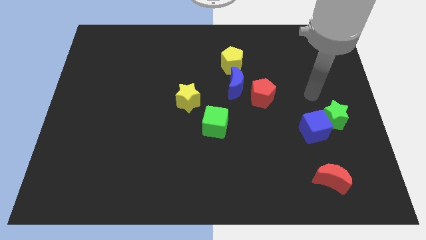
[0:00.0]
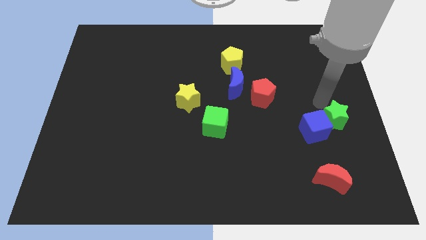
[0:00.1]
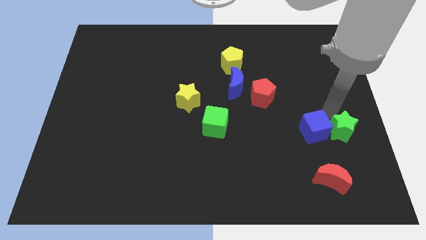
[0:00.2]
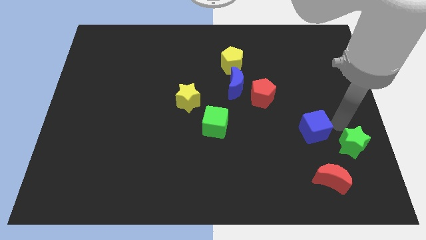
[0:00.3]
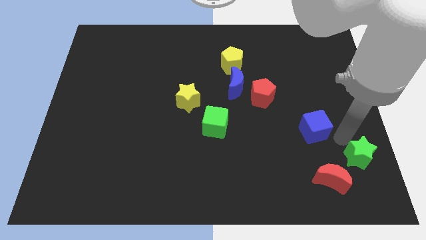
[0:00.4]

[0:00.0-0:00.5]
move the blue cube away from the green star

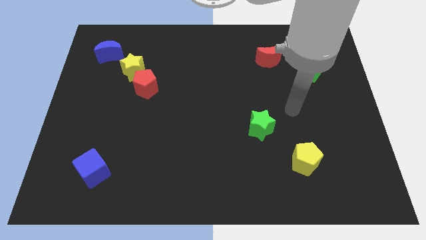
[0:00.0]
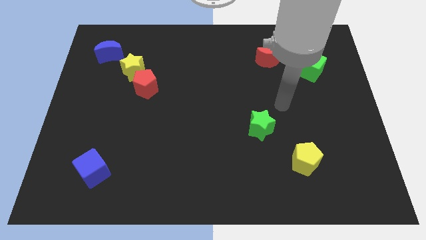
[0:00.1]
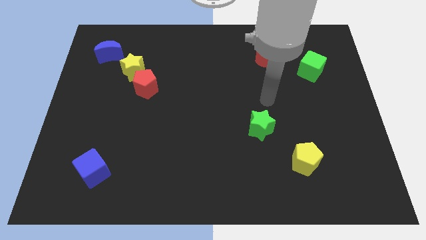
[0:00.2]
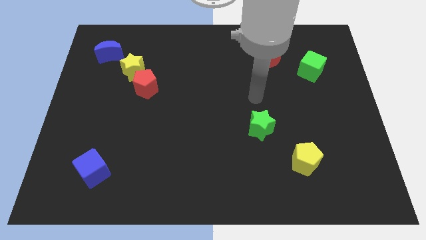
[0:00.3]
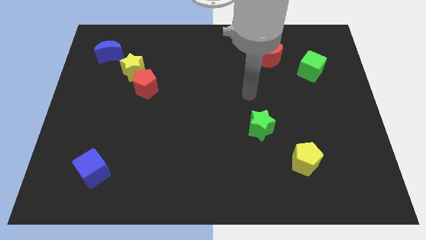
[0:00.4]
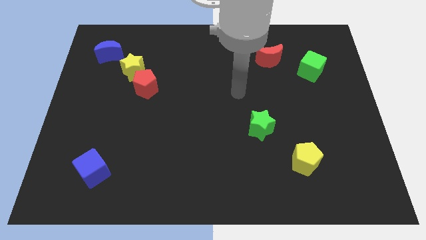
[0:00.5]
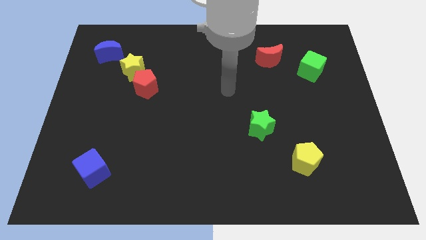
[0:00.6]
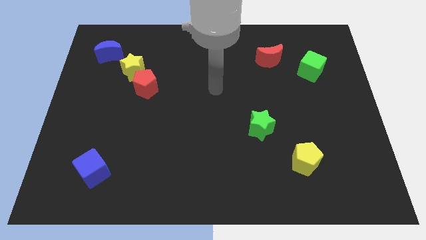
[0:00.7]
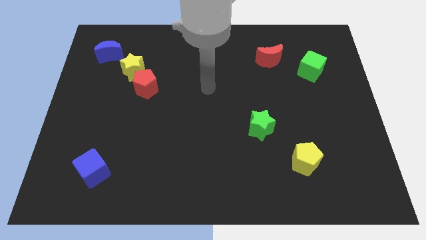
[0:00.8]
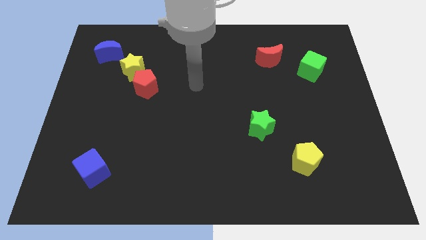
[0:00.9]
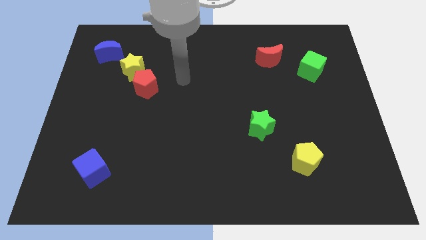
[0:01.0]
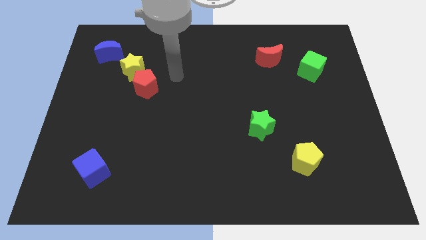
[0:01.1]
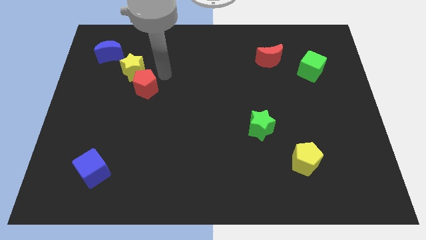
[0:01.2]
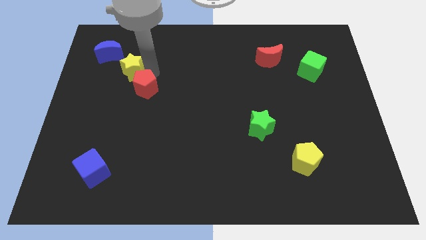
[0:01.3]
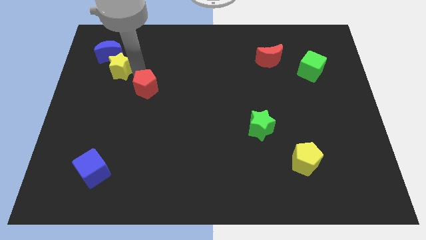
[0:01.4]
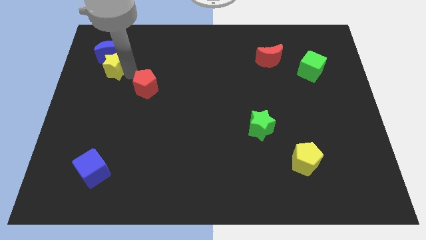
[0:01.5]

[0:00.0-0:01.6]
pull the red pentagon apart from the yellow star

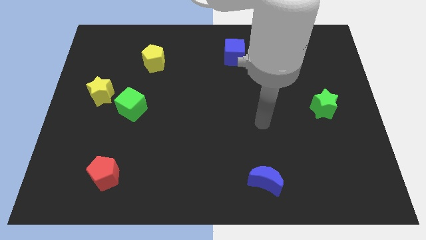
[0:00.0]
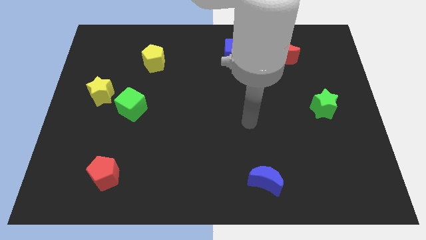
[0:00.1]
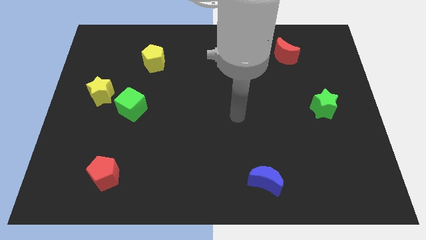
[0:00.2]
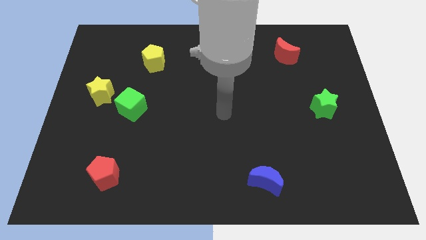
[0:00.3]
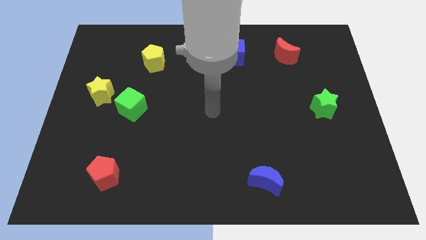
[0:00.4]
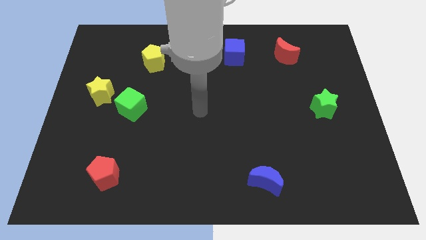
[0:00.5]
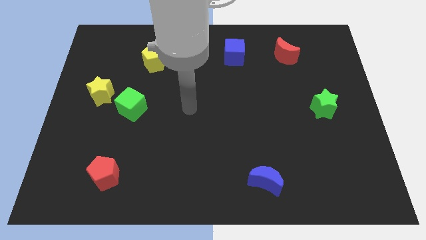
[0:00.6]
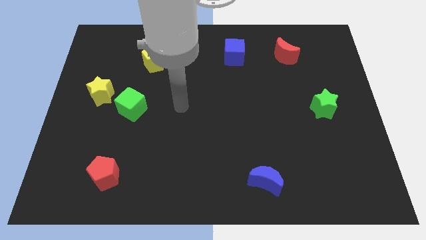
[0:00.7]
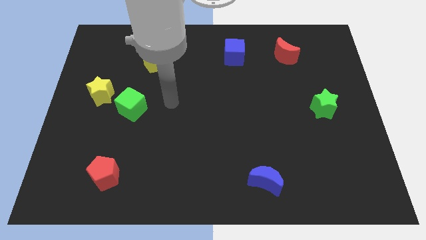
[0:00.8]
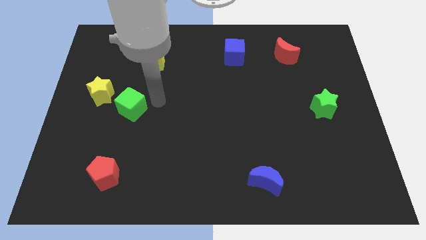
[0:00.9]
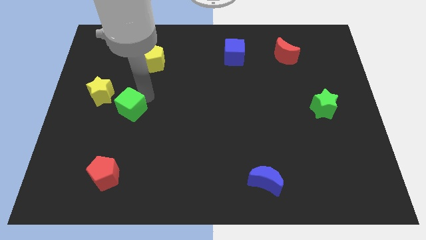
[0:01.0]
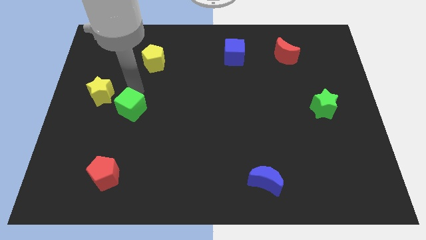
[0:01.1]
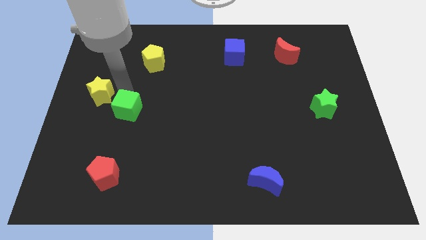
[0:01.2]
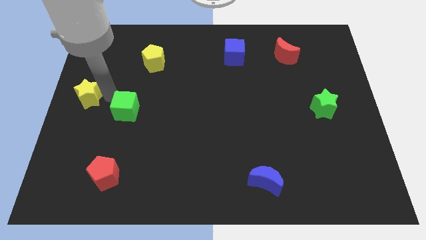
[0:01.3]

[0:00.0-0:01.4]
move the green cube away from the yellow star

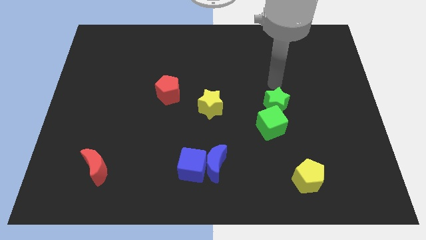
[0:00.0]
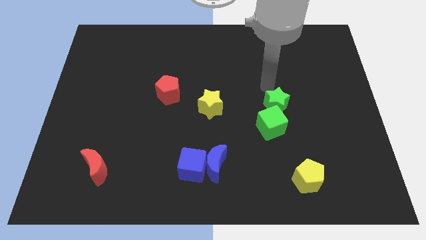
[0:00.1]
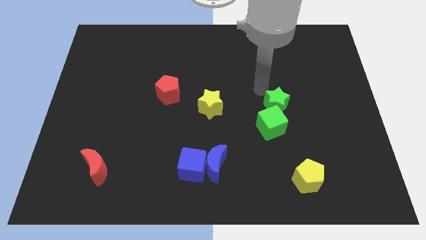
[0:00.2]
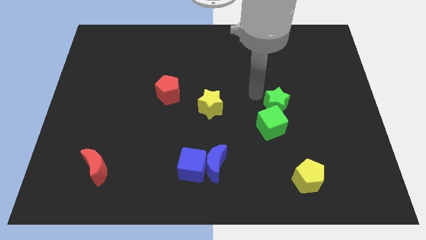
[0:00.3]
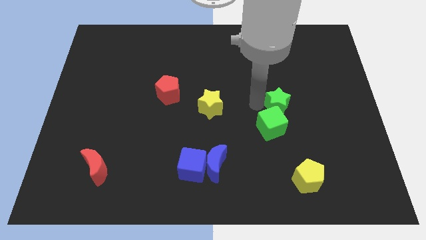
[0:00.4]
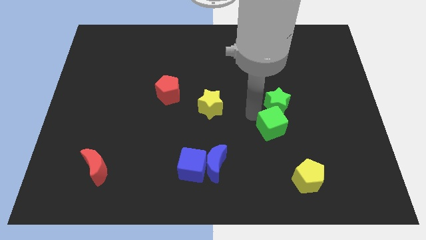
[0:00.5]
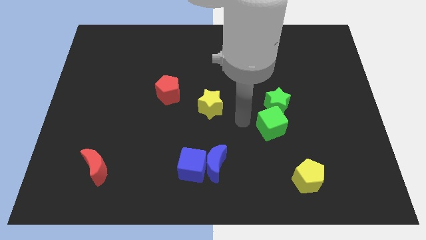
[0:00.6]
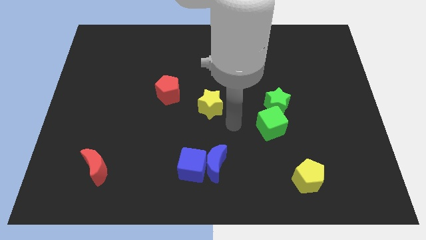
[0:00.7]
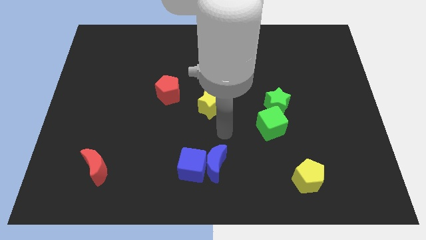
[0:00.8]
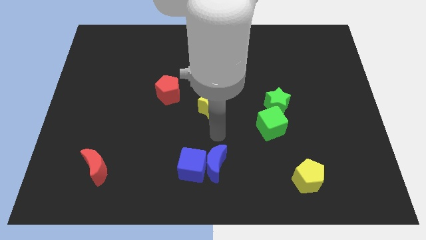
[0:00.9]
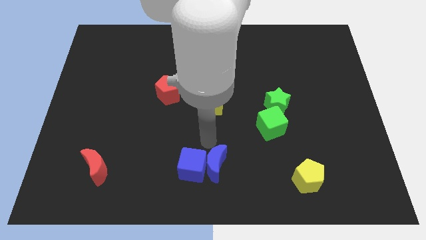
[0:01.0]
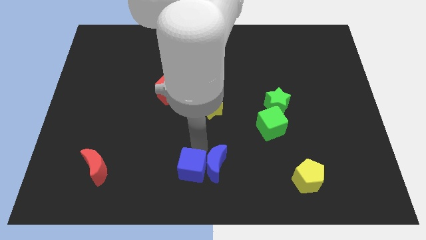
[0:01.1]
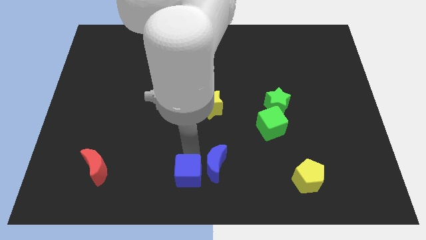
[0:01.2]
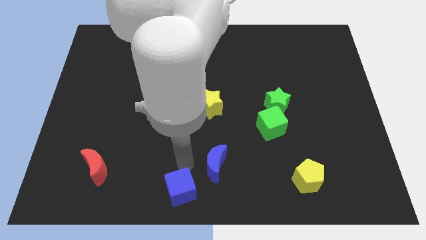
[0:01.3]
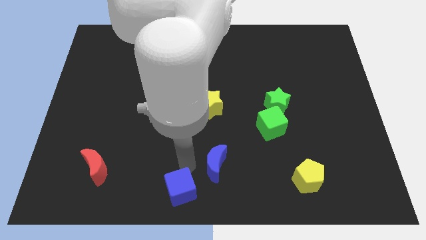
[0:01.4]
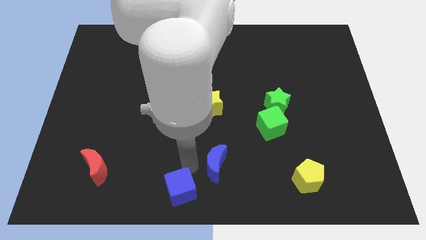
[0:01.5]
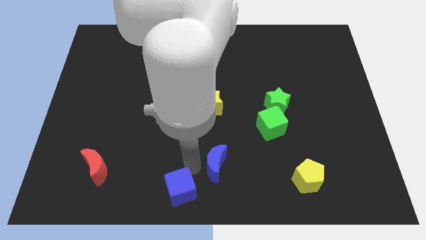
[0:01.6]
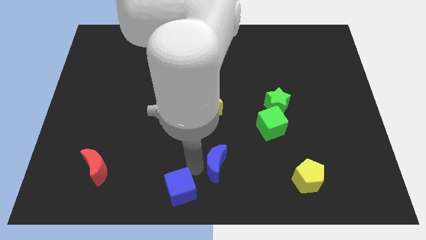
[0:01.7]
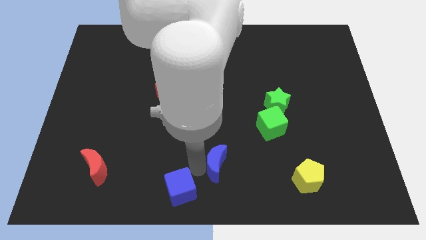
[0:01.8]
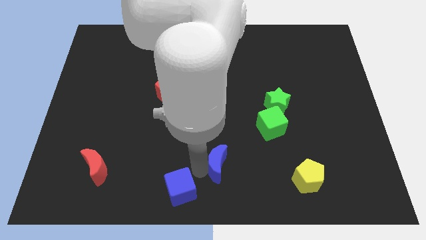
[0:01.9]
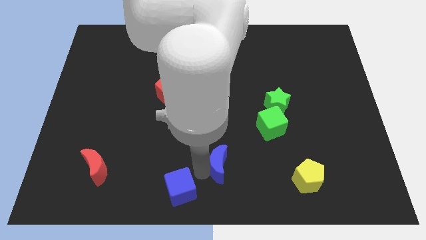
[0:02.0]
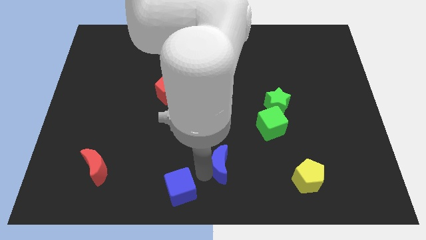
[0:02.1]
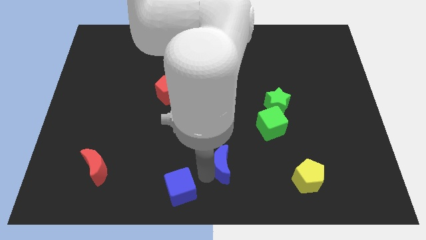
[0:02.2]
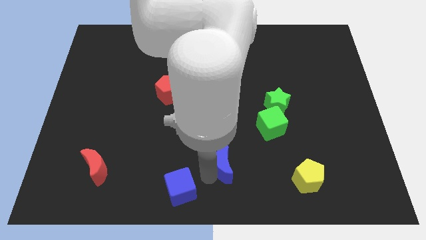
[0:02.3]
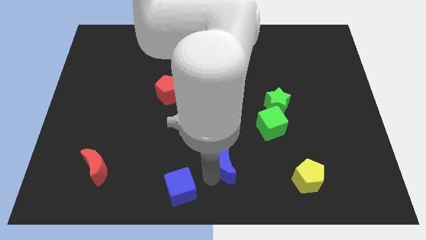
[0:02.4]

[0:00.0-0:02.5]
move the blue moon away from the blue cube

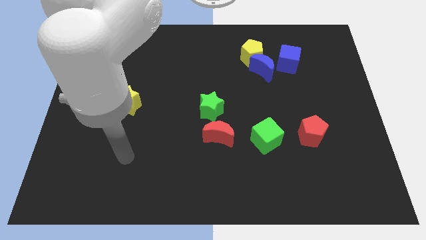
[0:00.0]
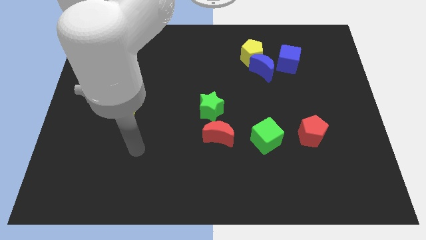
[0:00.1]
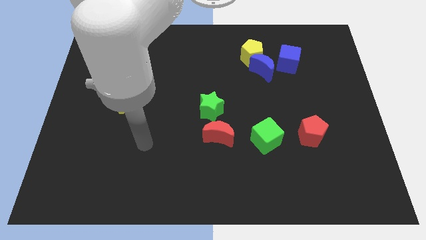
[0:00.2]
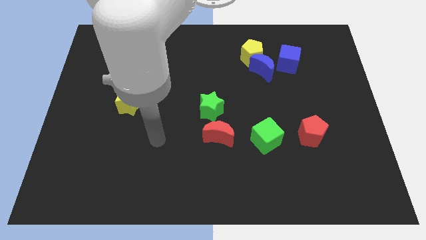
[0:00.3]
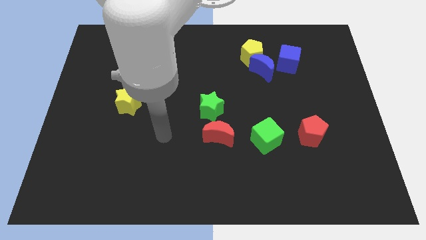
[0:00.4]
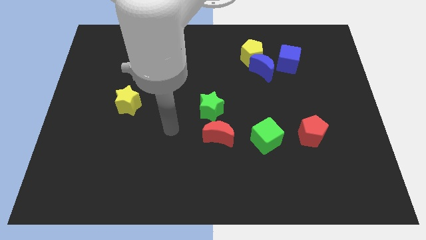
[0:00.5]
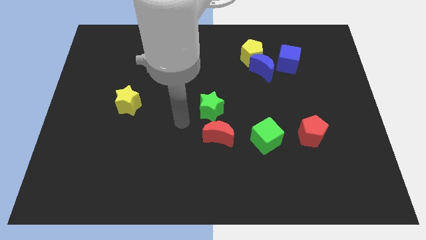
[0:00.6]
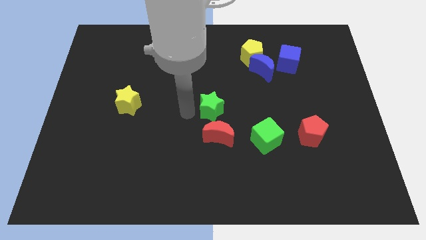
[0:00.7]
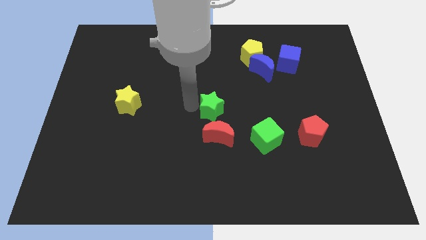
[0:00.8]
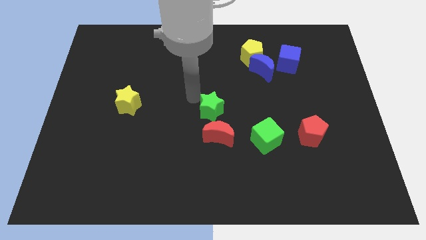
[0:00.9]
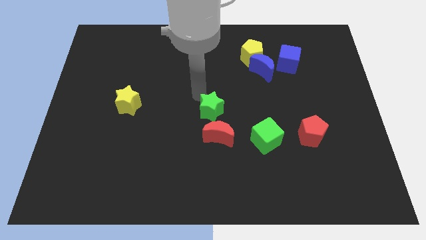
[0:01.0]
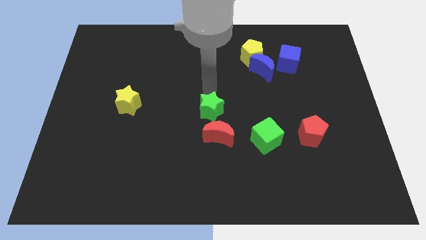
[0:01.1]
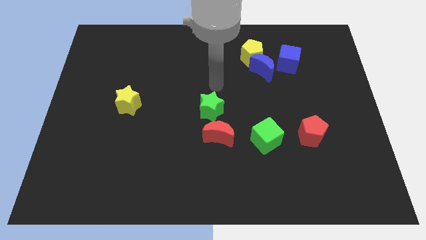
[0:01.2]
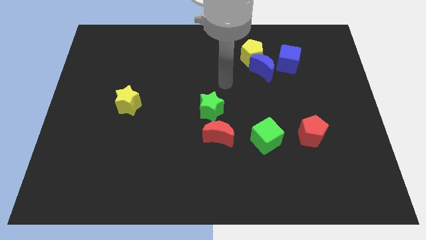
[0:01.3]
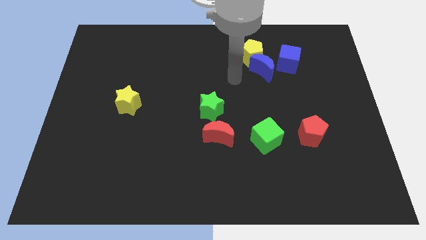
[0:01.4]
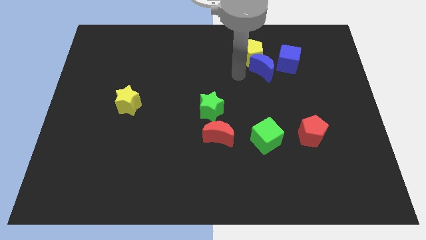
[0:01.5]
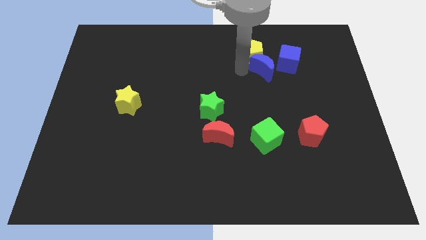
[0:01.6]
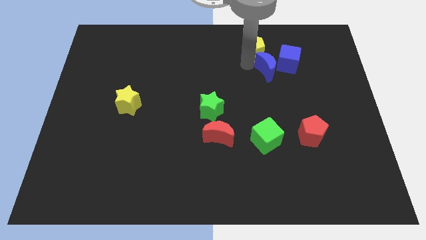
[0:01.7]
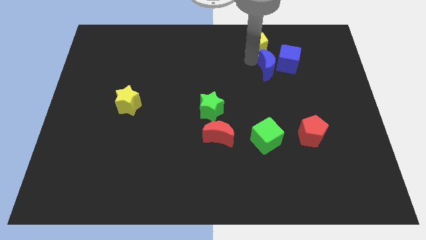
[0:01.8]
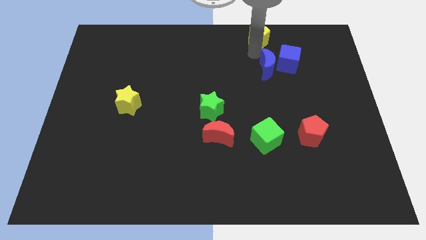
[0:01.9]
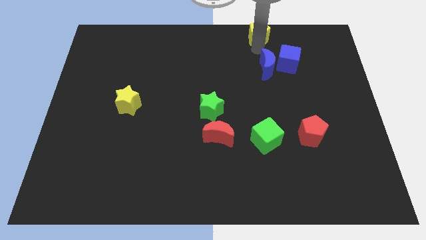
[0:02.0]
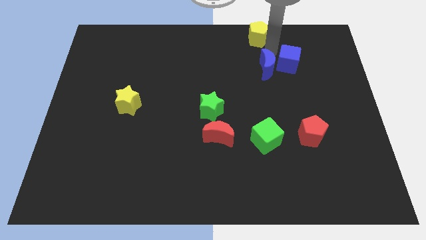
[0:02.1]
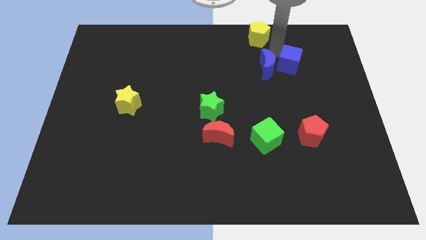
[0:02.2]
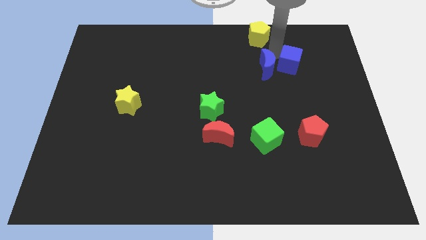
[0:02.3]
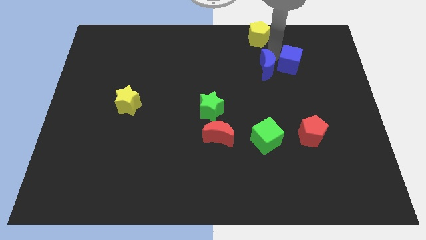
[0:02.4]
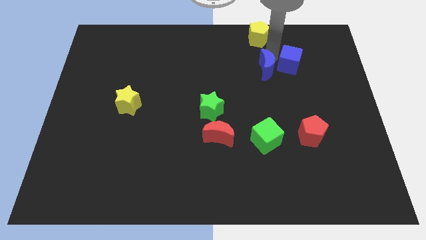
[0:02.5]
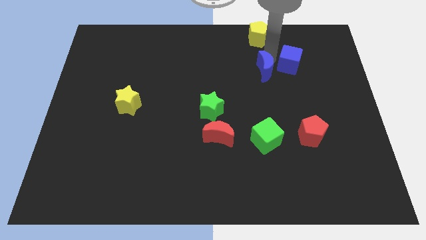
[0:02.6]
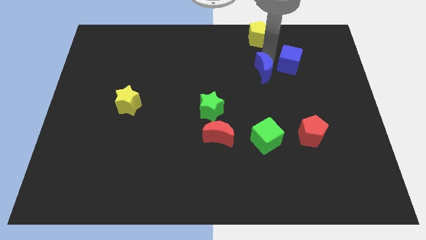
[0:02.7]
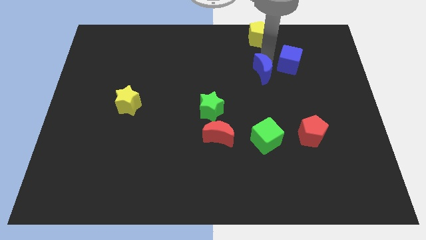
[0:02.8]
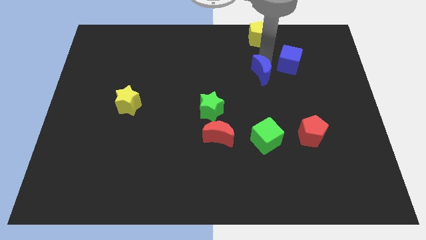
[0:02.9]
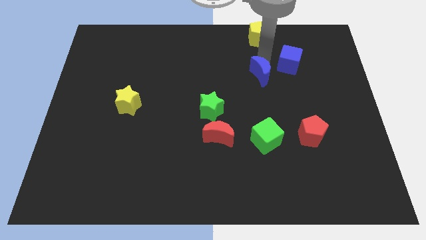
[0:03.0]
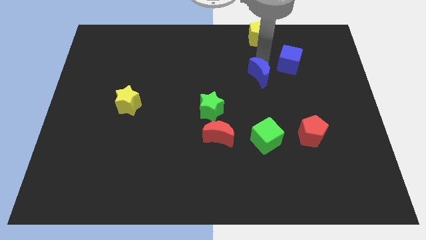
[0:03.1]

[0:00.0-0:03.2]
separate the blue moon from the yellow pentagon and blue cube

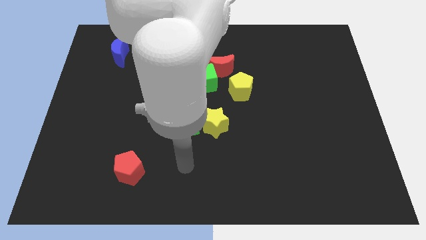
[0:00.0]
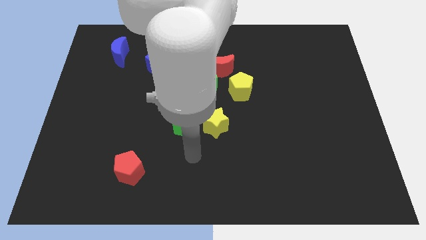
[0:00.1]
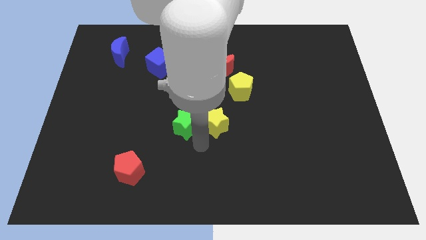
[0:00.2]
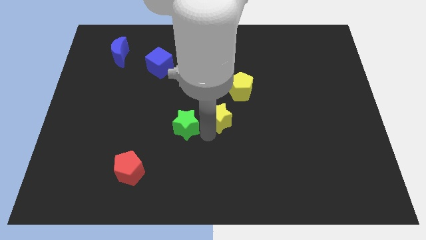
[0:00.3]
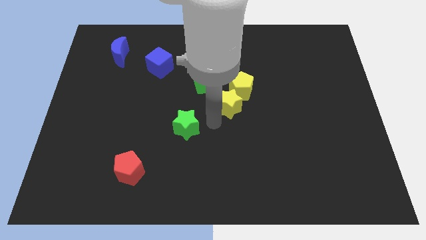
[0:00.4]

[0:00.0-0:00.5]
pull the green star apart from the yellow star
